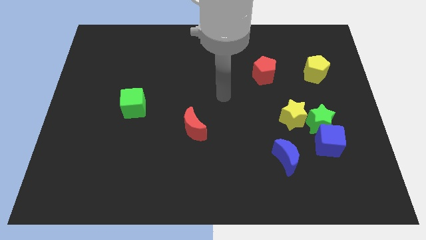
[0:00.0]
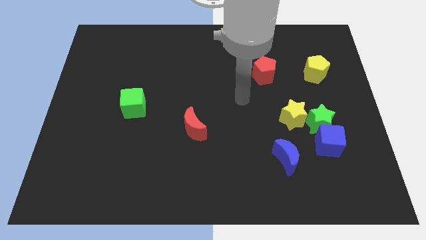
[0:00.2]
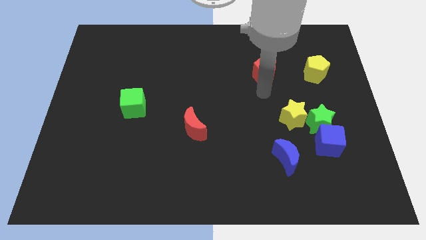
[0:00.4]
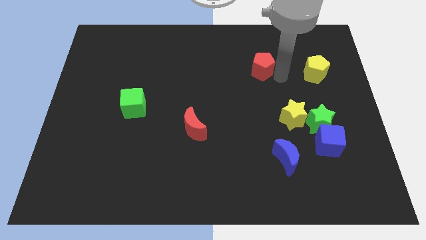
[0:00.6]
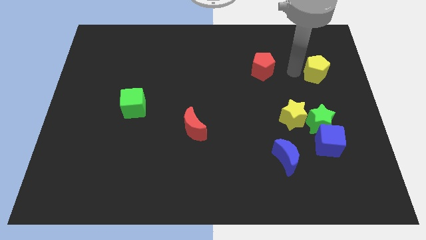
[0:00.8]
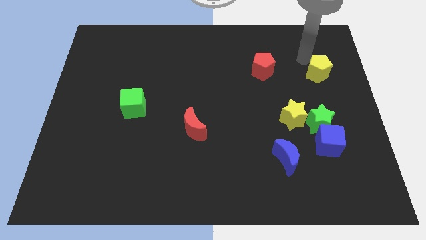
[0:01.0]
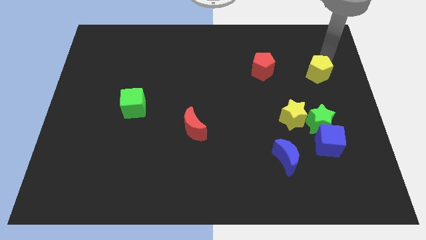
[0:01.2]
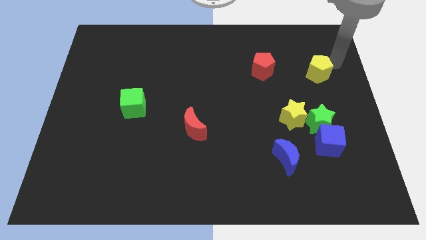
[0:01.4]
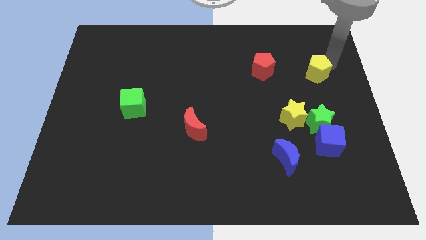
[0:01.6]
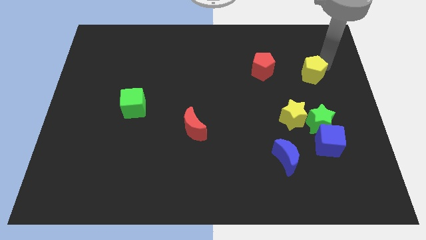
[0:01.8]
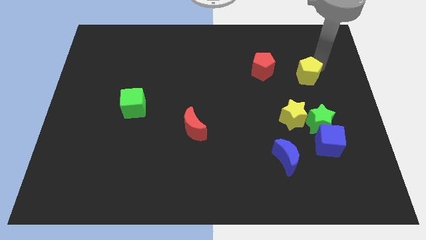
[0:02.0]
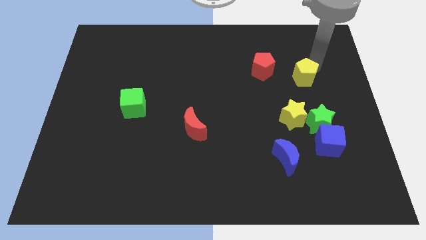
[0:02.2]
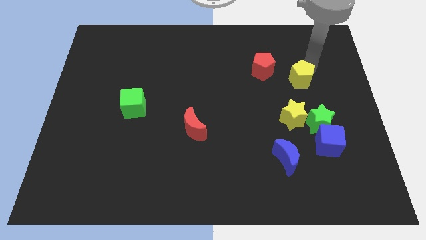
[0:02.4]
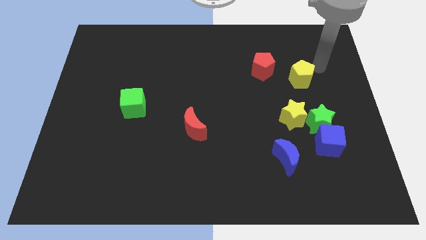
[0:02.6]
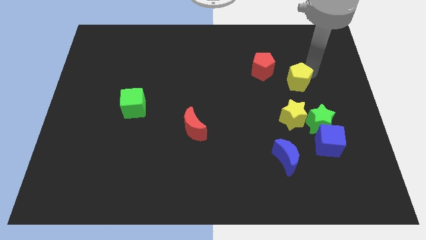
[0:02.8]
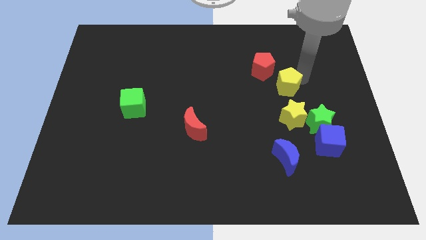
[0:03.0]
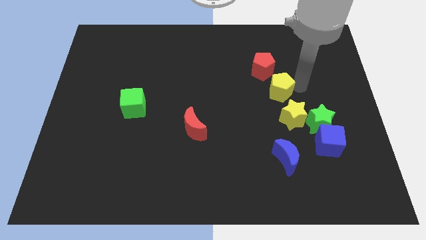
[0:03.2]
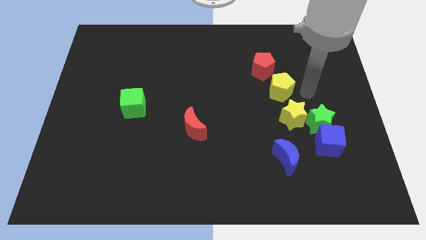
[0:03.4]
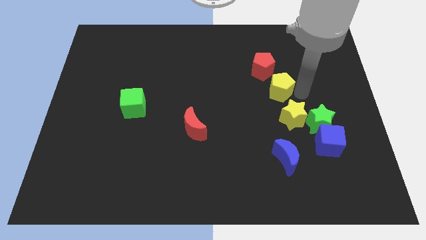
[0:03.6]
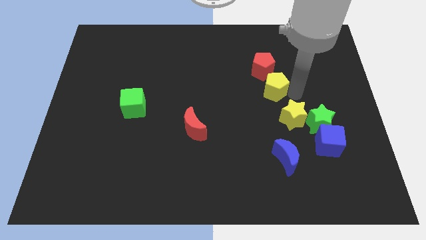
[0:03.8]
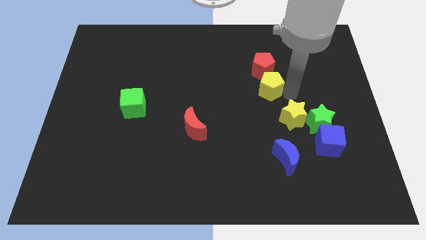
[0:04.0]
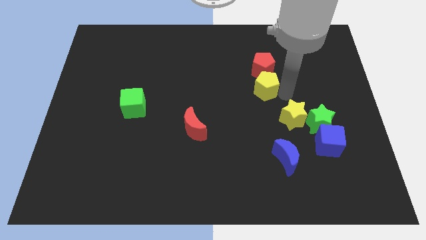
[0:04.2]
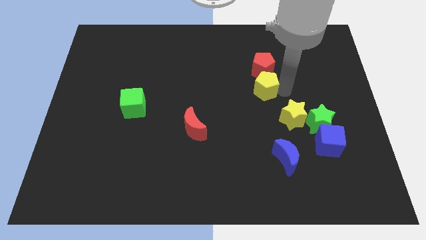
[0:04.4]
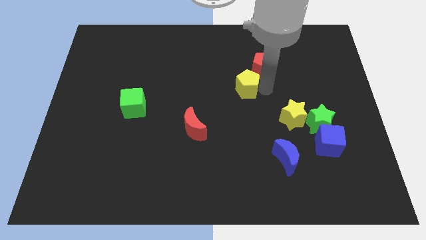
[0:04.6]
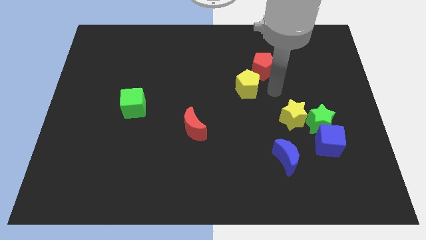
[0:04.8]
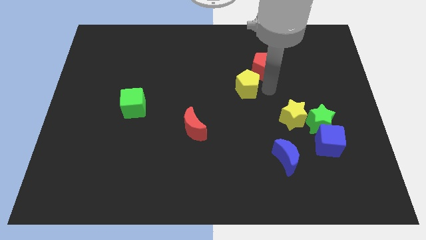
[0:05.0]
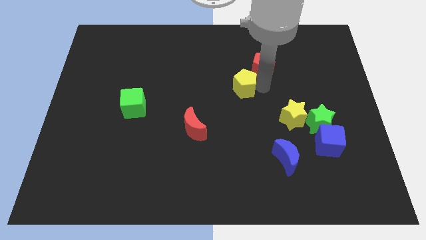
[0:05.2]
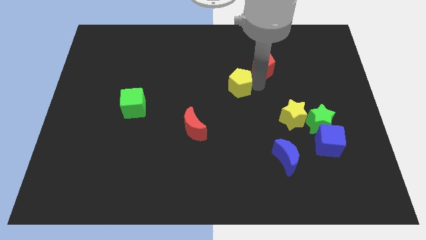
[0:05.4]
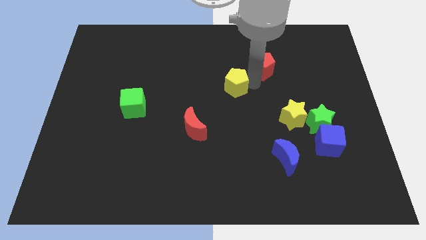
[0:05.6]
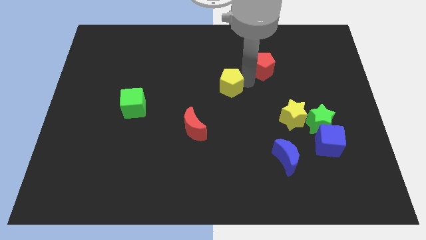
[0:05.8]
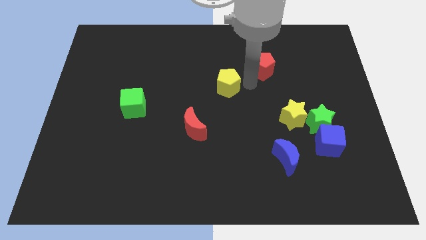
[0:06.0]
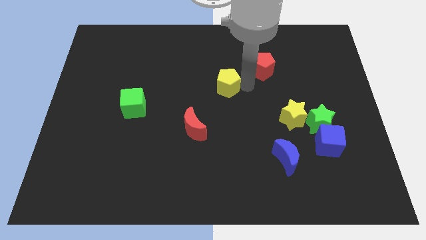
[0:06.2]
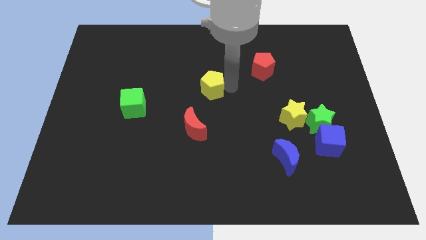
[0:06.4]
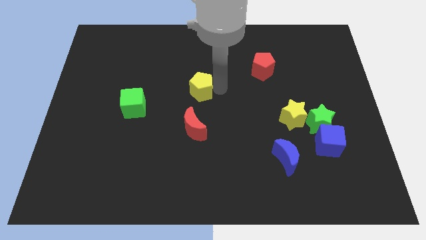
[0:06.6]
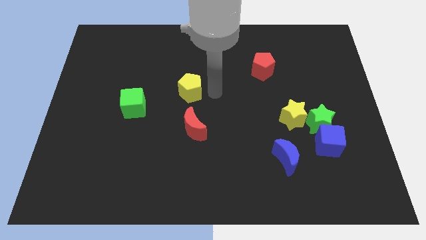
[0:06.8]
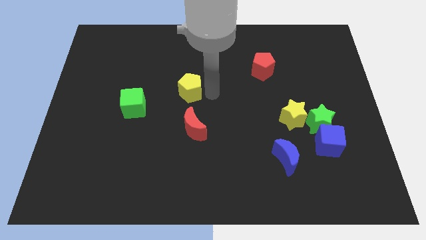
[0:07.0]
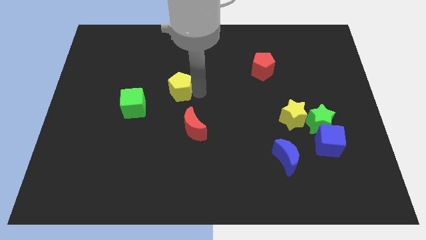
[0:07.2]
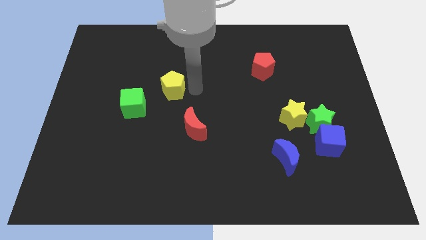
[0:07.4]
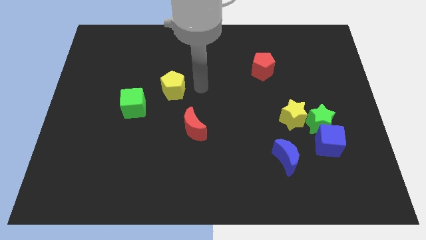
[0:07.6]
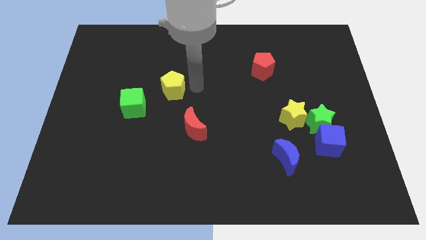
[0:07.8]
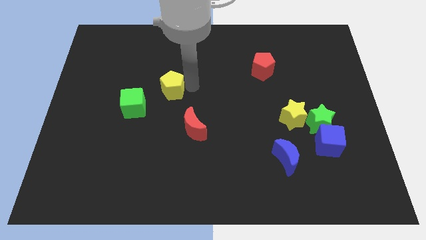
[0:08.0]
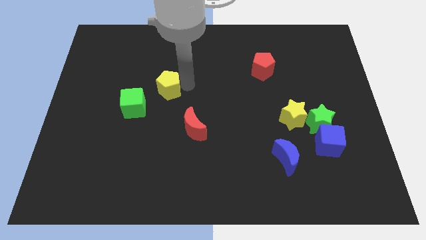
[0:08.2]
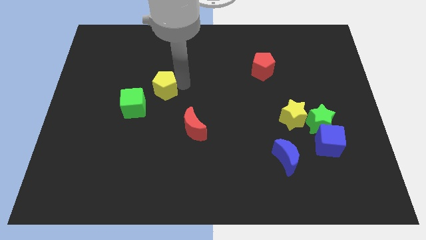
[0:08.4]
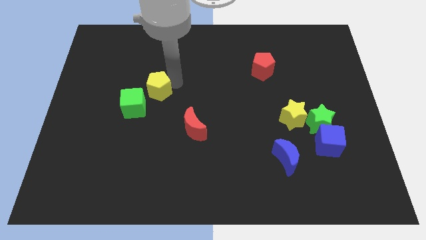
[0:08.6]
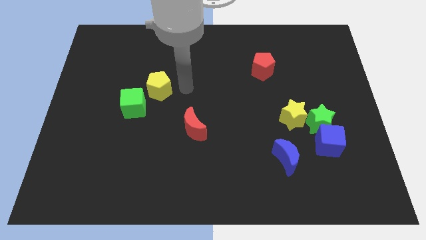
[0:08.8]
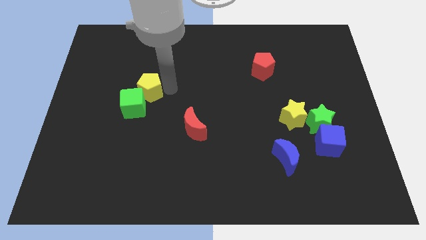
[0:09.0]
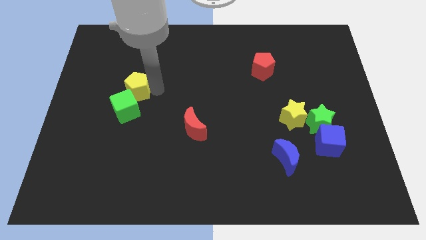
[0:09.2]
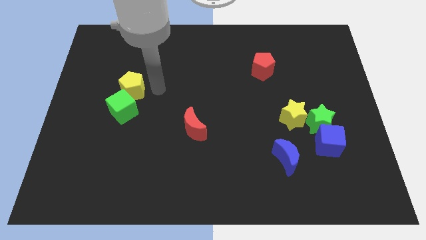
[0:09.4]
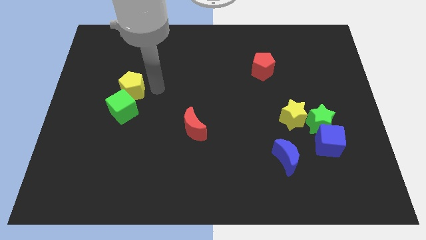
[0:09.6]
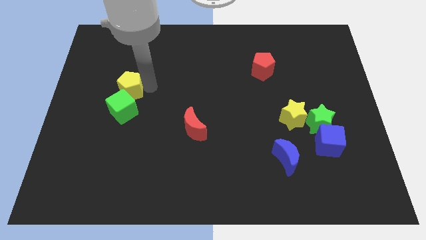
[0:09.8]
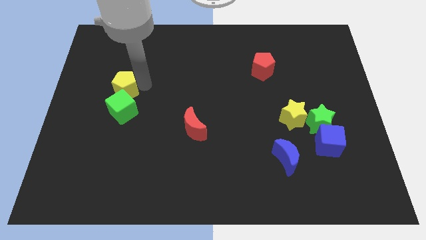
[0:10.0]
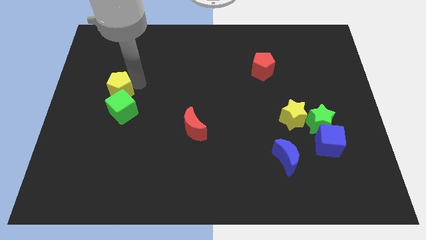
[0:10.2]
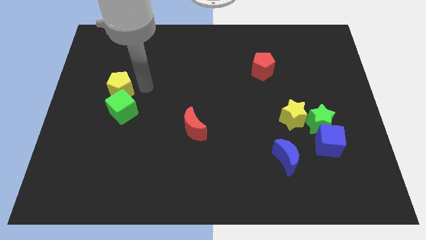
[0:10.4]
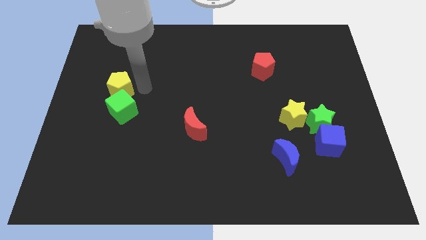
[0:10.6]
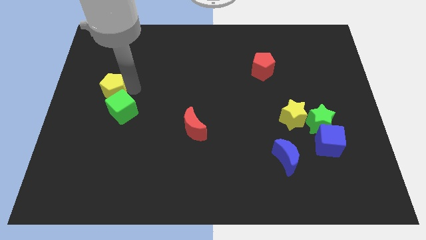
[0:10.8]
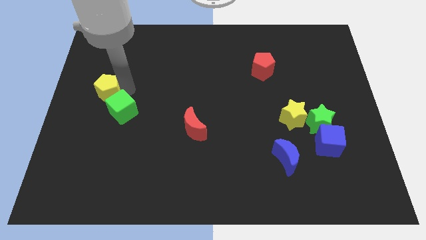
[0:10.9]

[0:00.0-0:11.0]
slide the yellow pentagon to the left side of the board

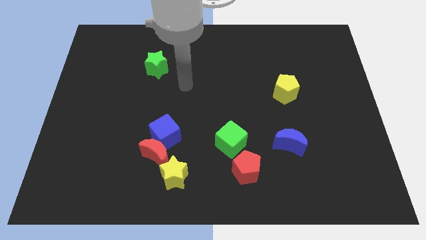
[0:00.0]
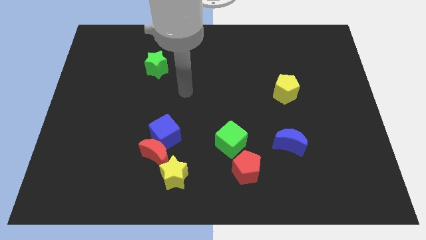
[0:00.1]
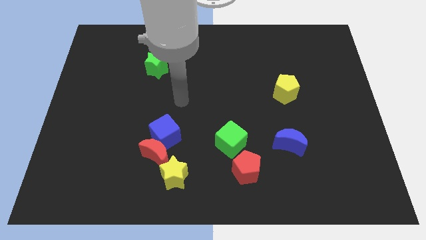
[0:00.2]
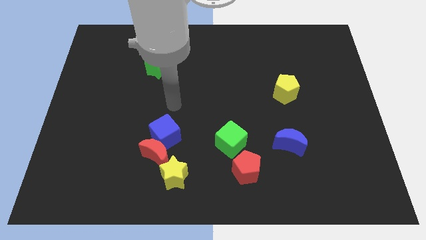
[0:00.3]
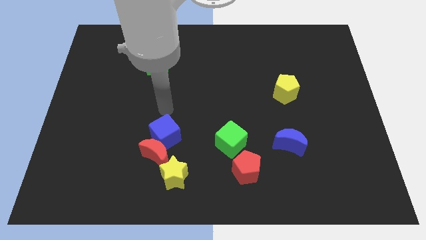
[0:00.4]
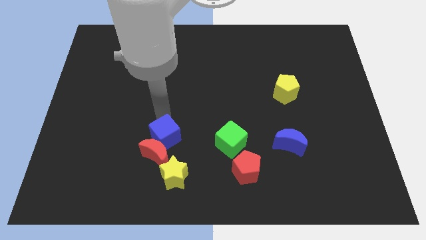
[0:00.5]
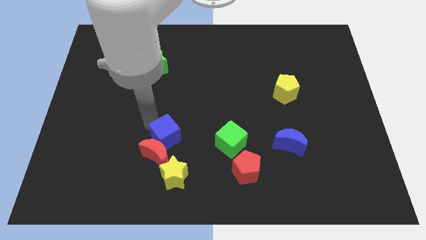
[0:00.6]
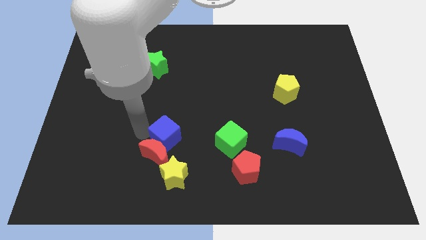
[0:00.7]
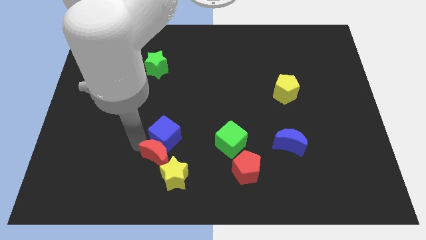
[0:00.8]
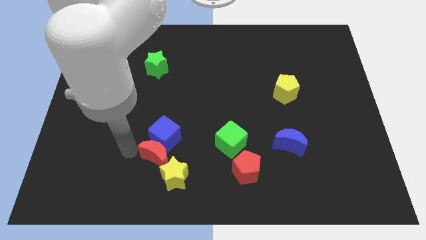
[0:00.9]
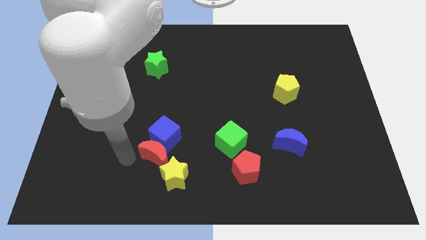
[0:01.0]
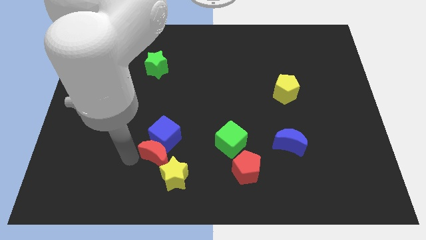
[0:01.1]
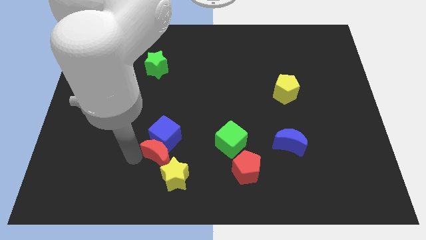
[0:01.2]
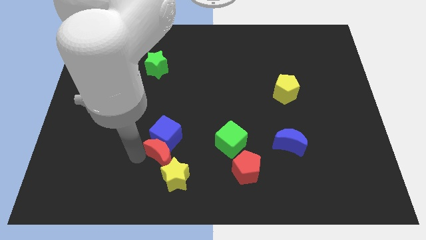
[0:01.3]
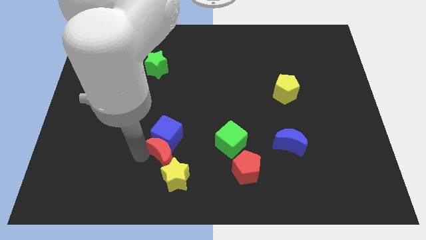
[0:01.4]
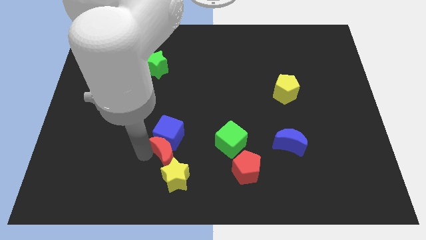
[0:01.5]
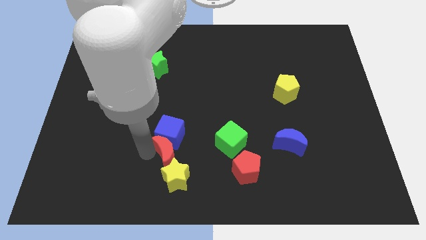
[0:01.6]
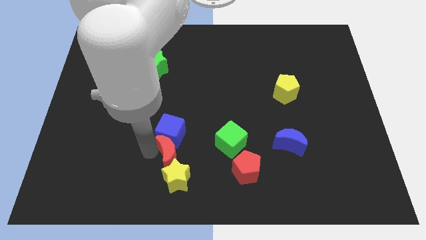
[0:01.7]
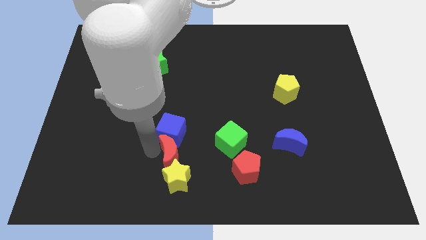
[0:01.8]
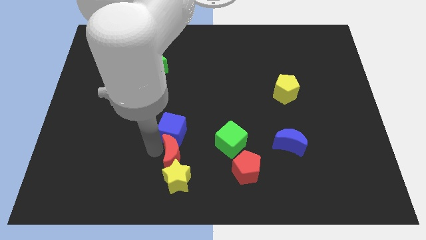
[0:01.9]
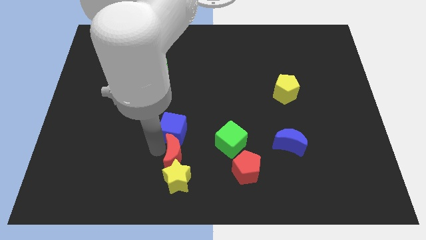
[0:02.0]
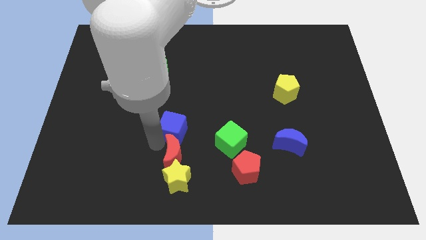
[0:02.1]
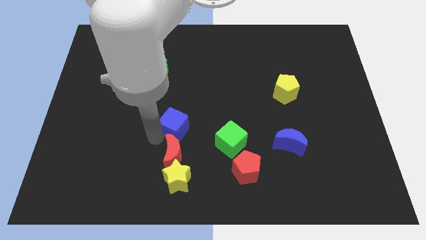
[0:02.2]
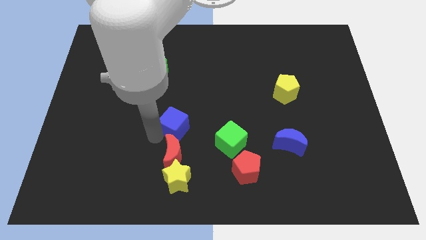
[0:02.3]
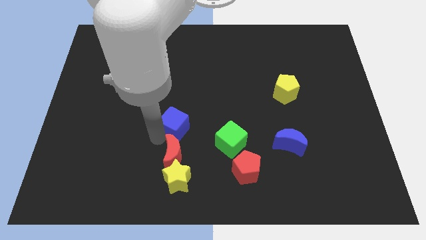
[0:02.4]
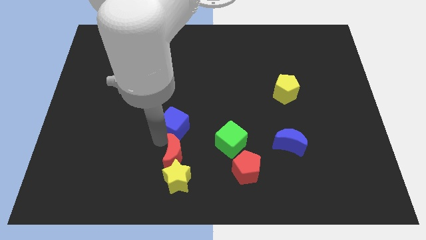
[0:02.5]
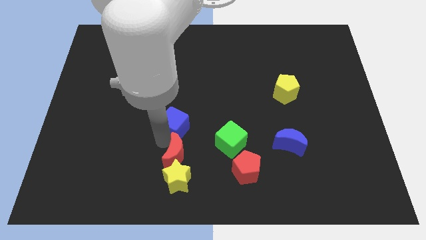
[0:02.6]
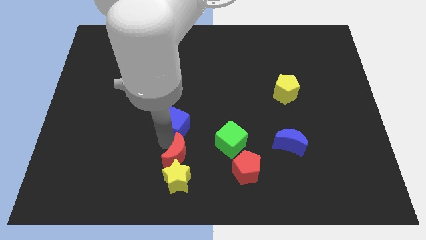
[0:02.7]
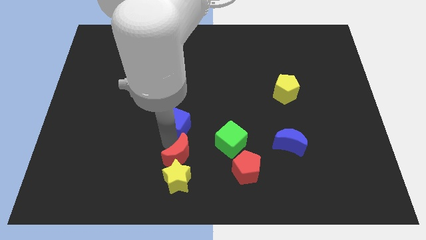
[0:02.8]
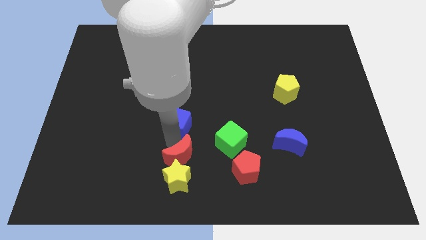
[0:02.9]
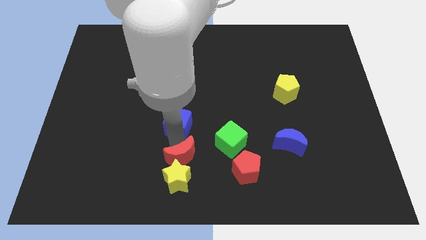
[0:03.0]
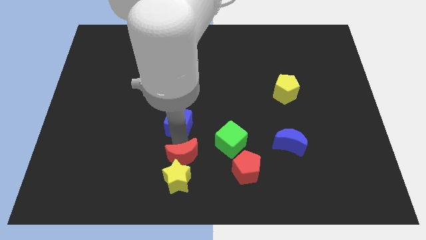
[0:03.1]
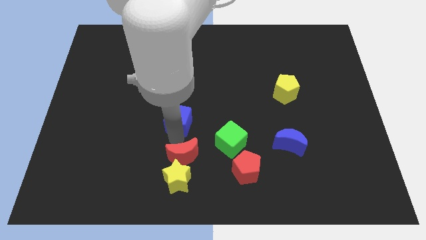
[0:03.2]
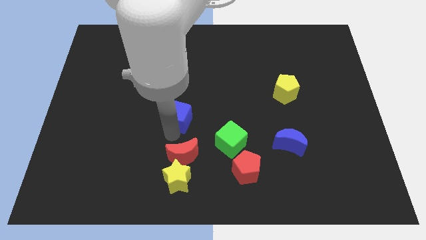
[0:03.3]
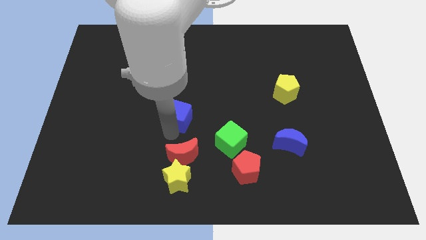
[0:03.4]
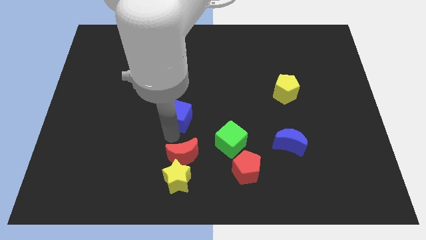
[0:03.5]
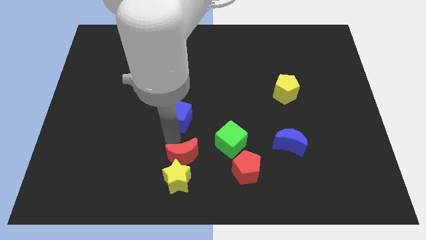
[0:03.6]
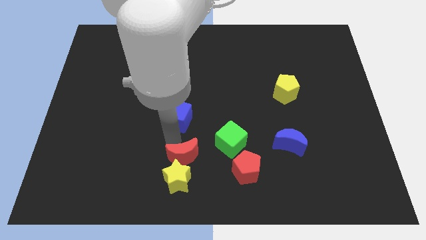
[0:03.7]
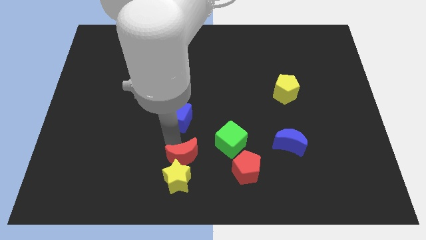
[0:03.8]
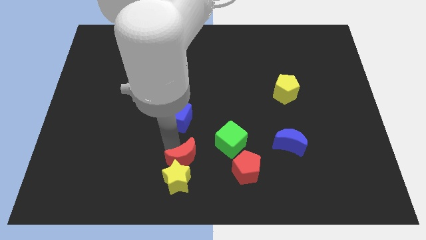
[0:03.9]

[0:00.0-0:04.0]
put the red moon to the bottom
